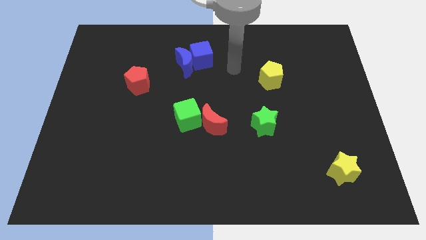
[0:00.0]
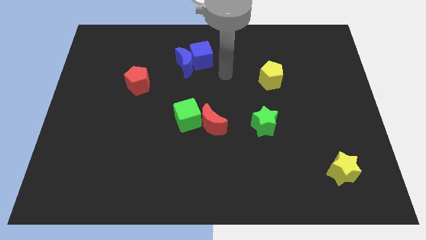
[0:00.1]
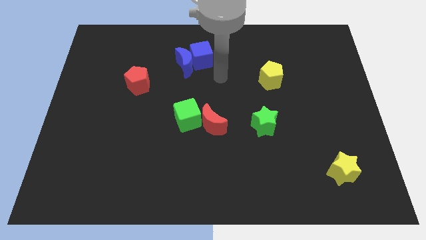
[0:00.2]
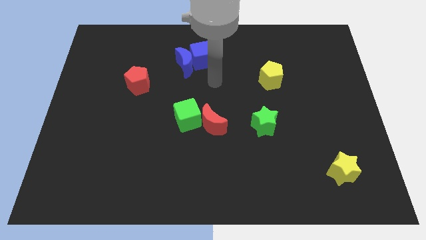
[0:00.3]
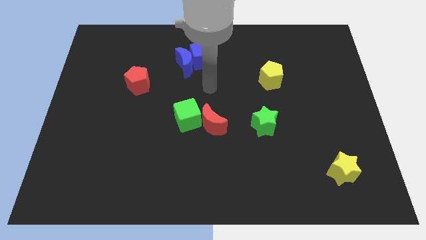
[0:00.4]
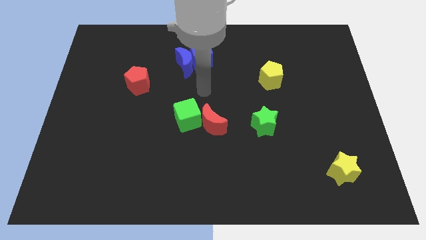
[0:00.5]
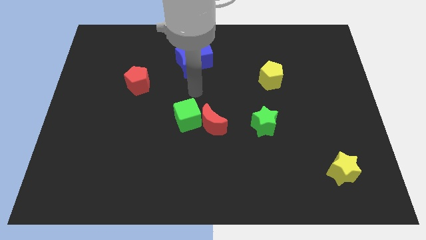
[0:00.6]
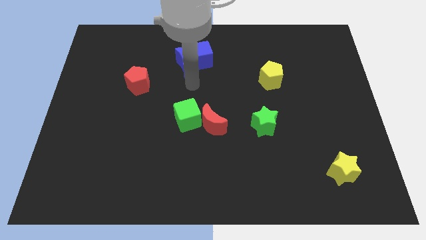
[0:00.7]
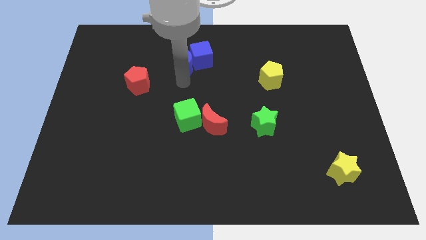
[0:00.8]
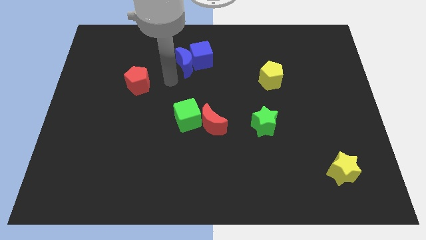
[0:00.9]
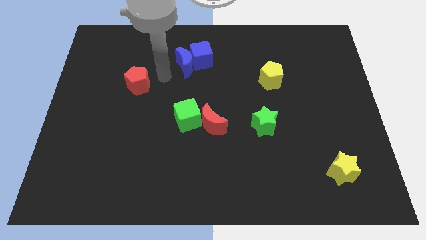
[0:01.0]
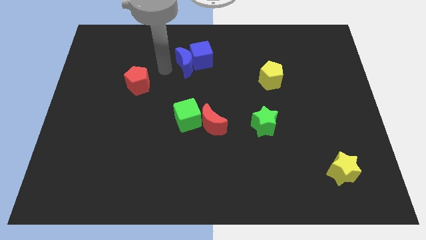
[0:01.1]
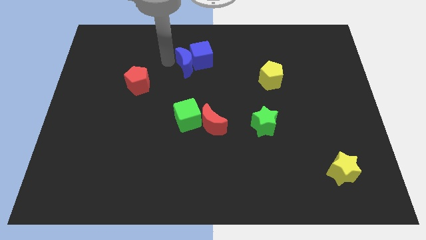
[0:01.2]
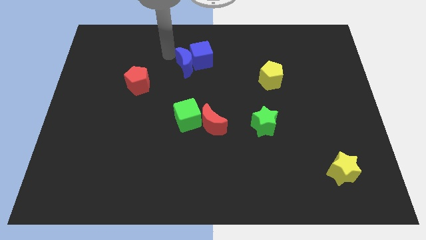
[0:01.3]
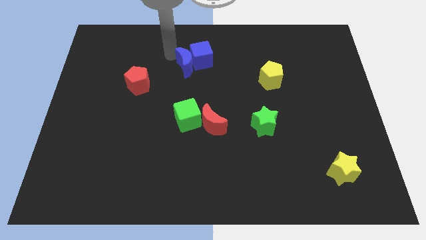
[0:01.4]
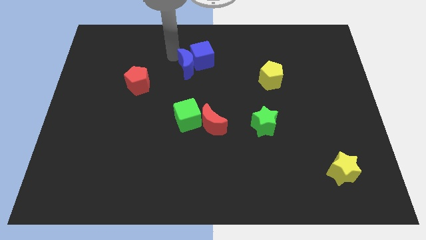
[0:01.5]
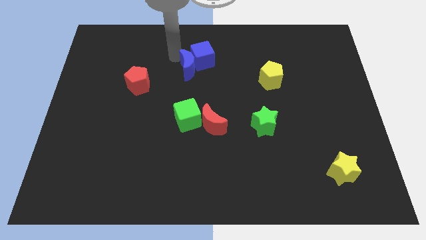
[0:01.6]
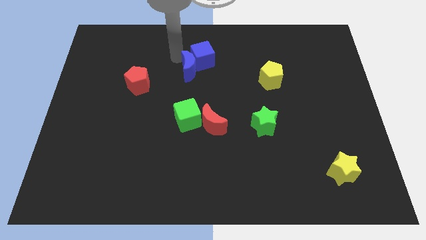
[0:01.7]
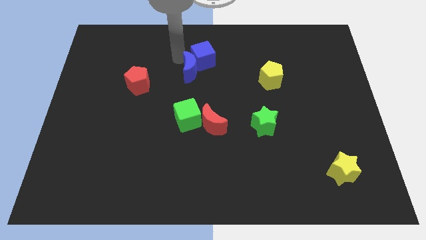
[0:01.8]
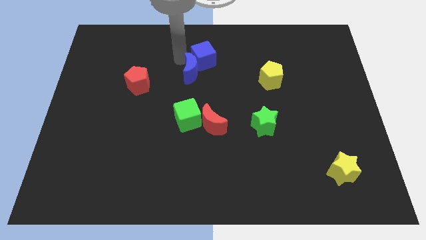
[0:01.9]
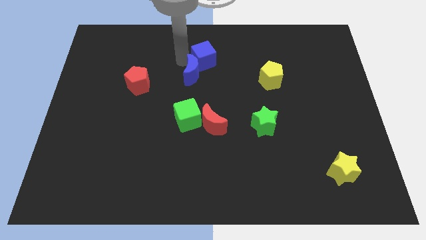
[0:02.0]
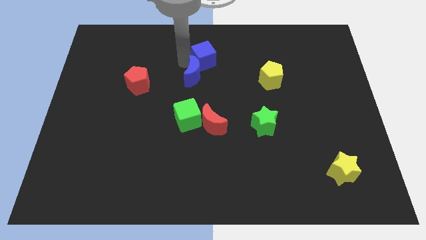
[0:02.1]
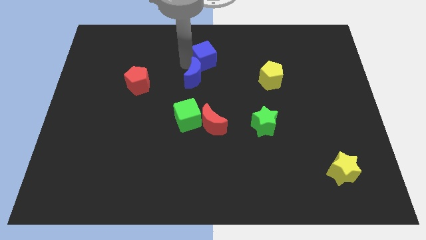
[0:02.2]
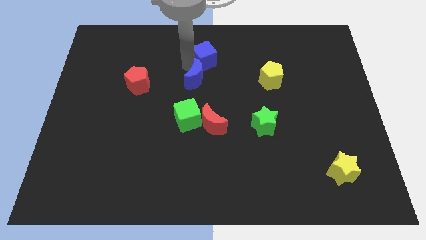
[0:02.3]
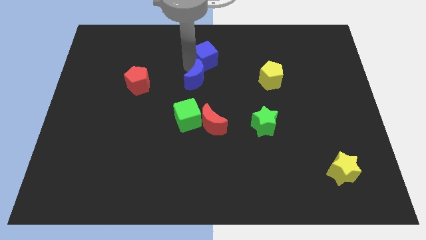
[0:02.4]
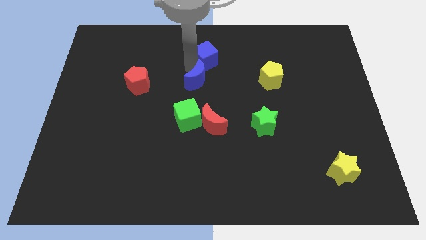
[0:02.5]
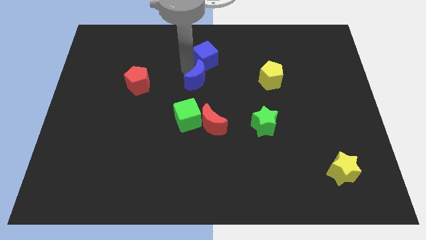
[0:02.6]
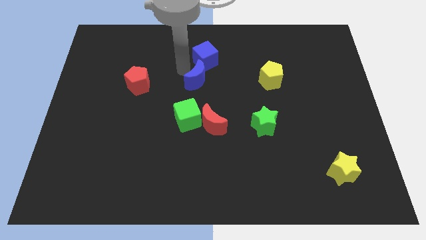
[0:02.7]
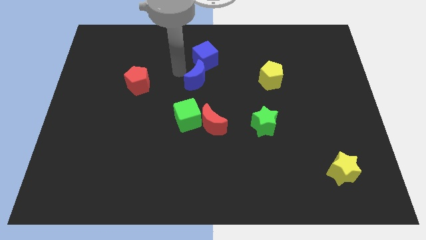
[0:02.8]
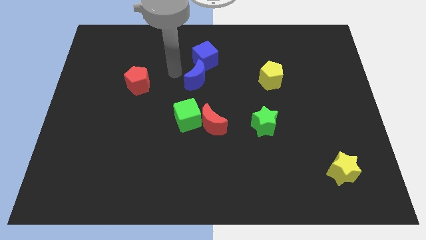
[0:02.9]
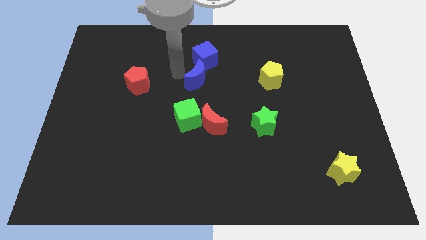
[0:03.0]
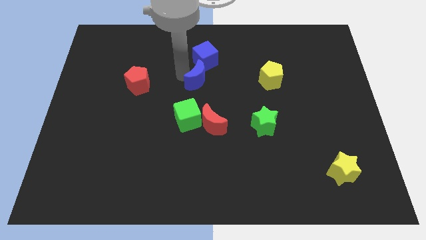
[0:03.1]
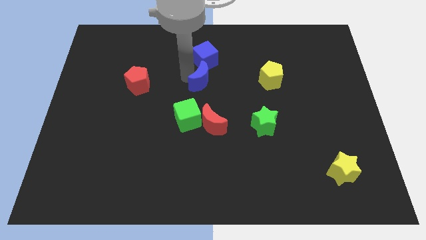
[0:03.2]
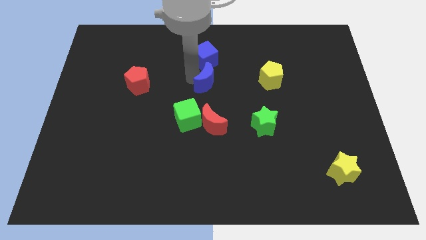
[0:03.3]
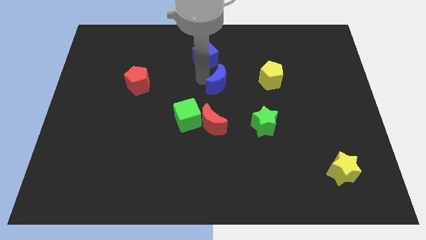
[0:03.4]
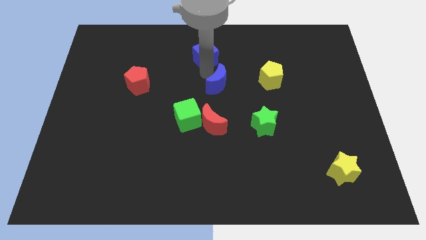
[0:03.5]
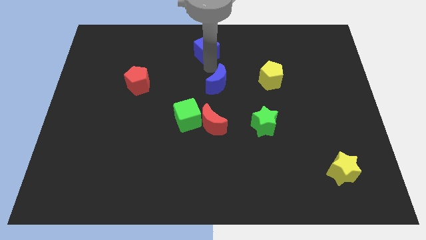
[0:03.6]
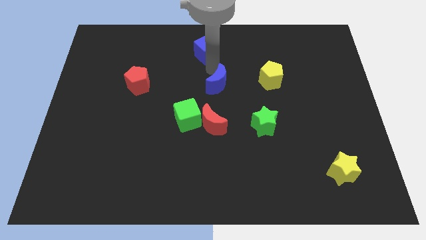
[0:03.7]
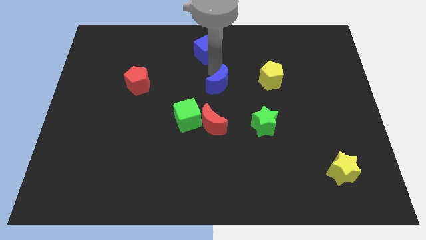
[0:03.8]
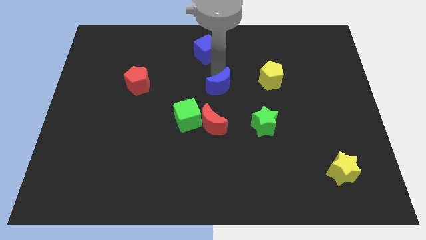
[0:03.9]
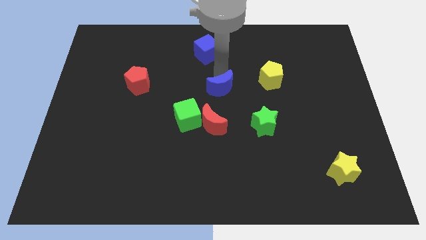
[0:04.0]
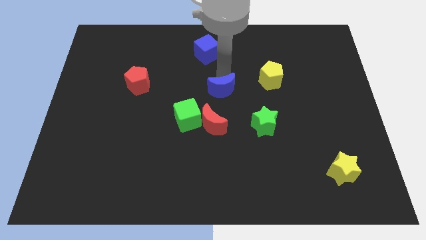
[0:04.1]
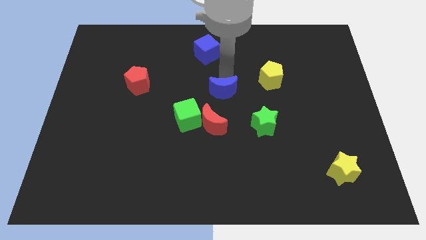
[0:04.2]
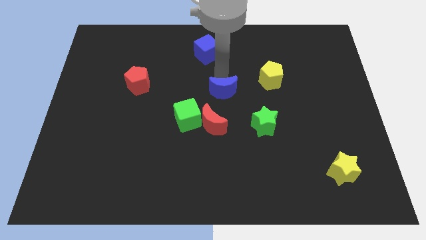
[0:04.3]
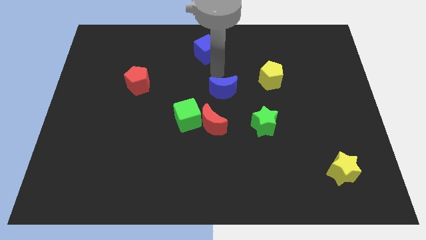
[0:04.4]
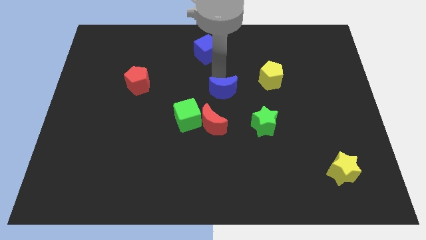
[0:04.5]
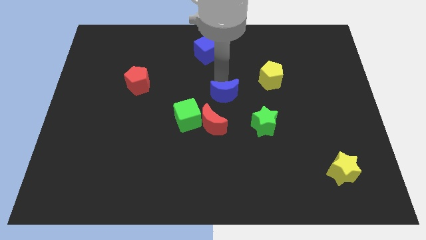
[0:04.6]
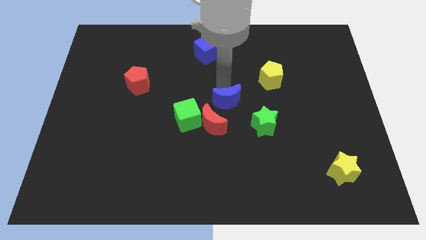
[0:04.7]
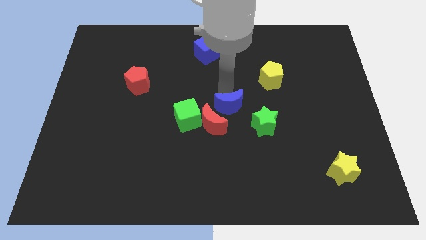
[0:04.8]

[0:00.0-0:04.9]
move the blue moon to the right side of the green cube
